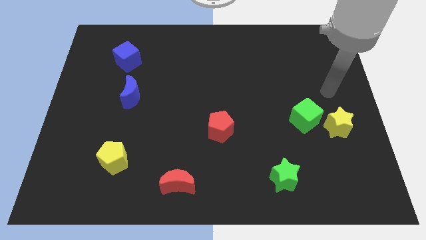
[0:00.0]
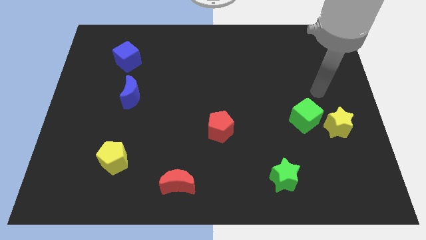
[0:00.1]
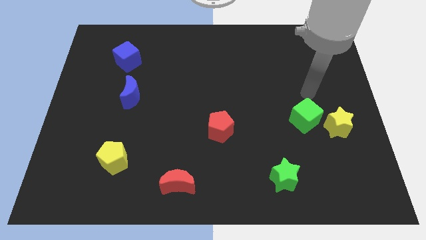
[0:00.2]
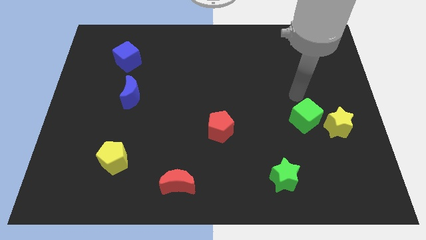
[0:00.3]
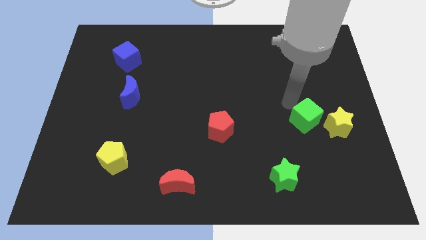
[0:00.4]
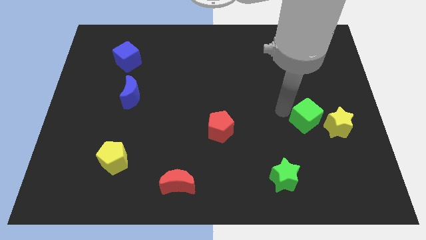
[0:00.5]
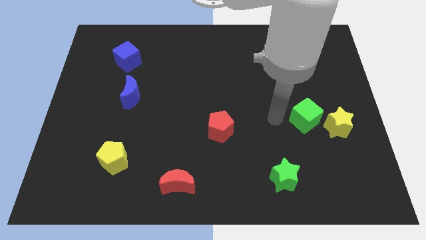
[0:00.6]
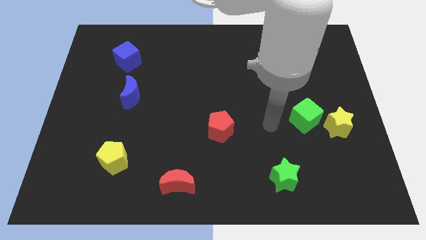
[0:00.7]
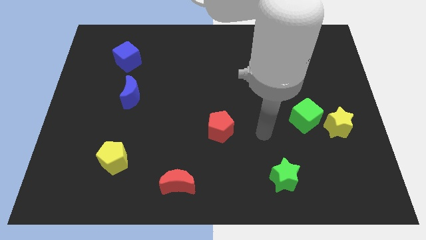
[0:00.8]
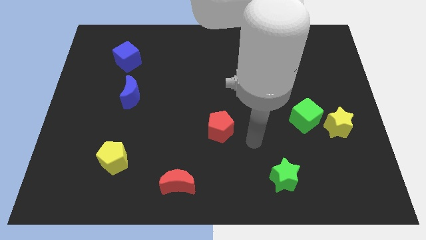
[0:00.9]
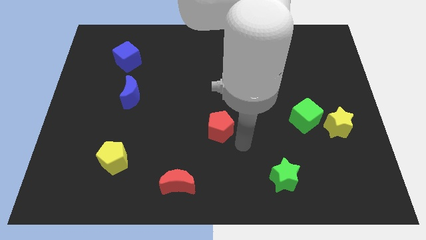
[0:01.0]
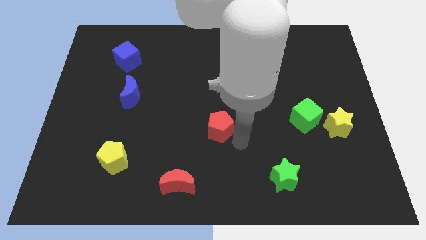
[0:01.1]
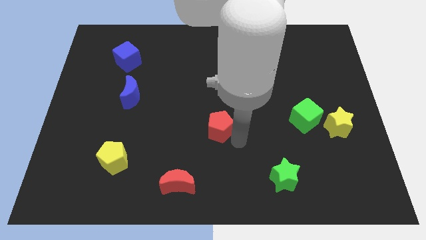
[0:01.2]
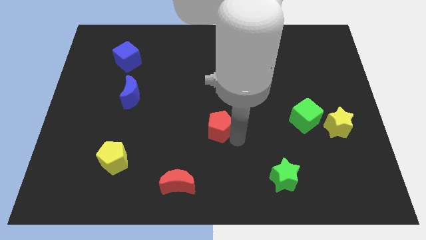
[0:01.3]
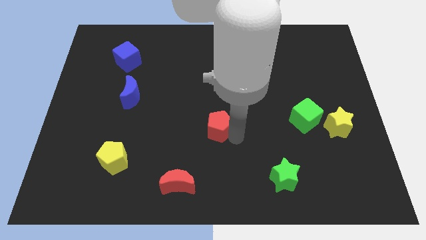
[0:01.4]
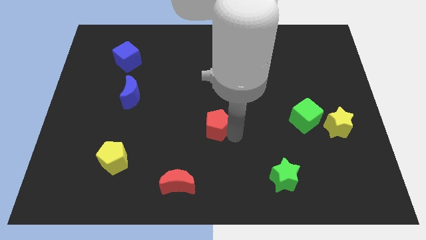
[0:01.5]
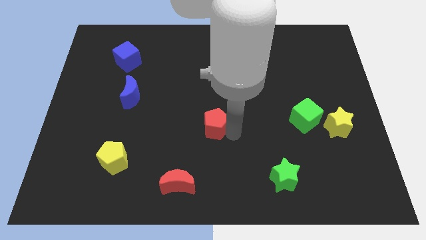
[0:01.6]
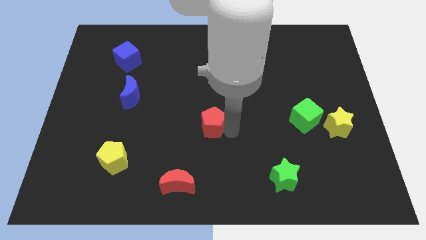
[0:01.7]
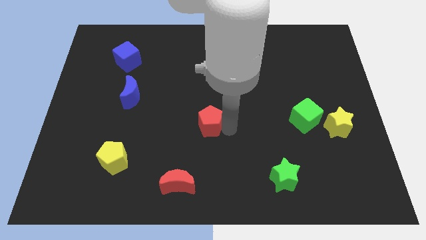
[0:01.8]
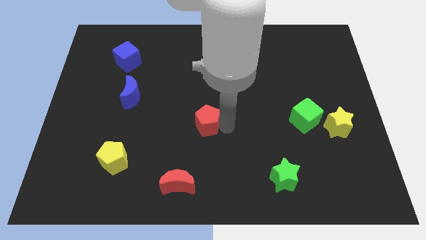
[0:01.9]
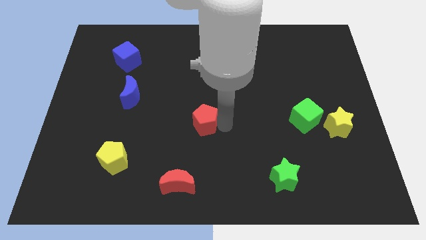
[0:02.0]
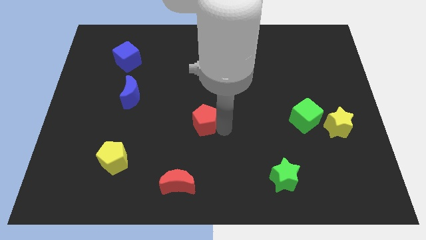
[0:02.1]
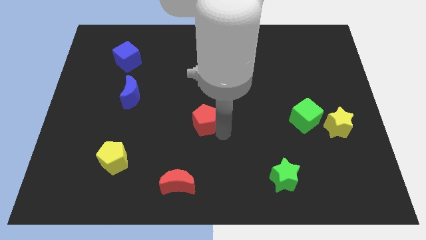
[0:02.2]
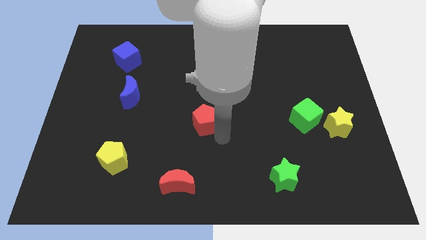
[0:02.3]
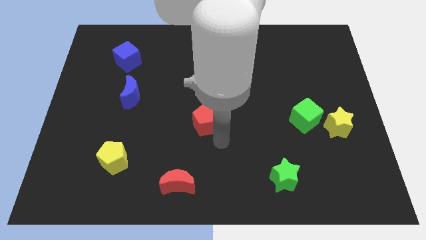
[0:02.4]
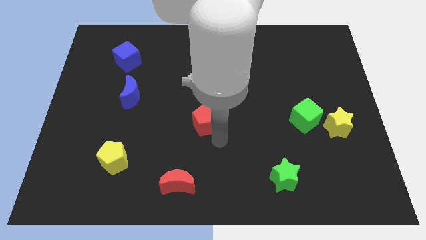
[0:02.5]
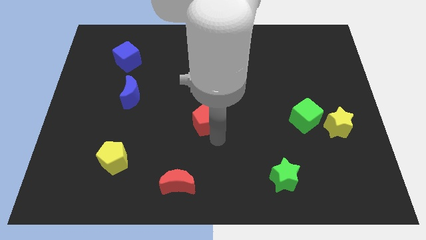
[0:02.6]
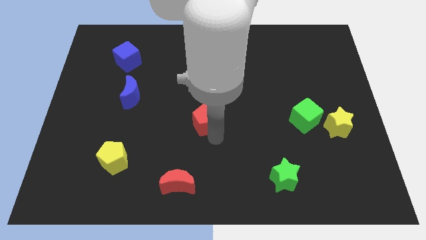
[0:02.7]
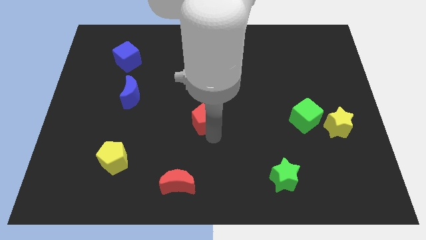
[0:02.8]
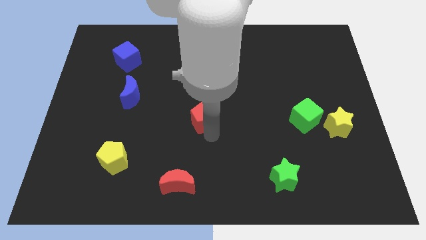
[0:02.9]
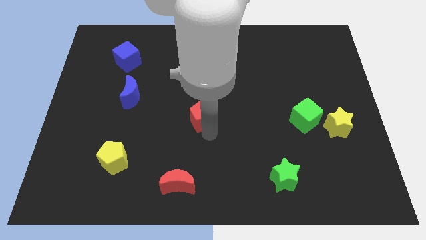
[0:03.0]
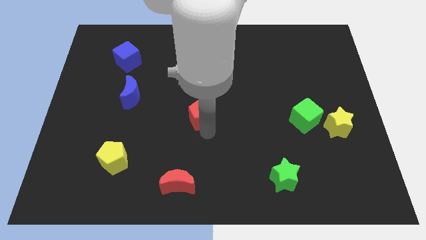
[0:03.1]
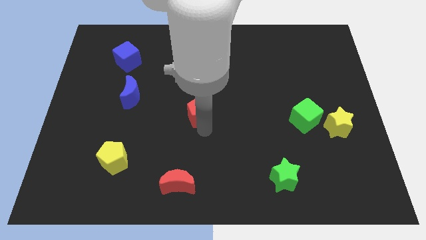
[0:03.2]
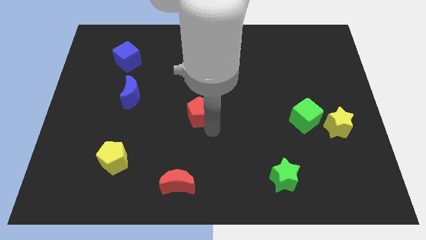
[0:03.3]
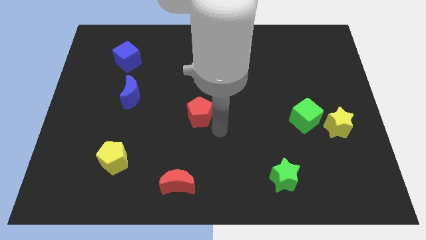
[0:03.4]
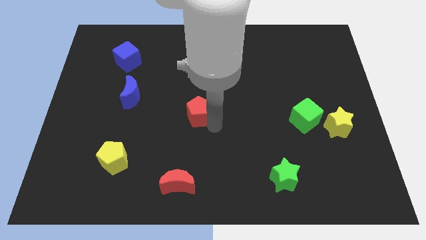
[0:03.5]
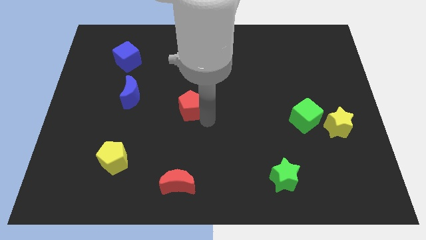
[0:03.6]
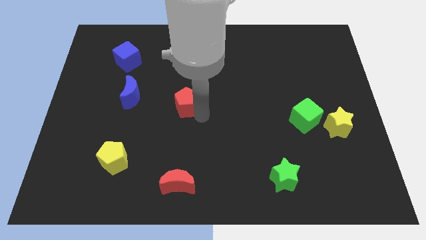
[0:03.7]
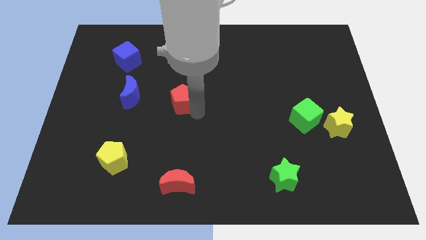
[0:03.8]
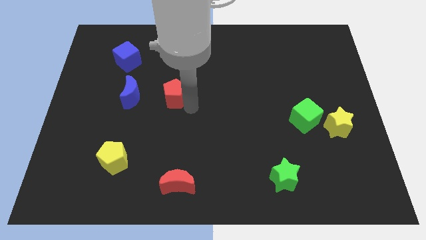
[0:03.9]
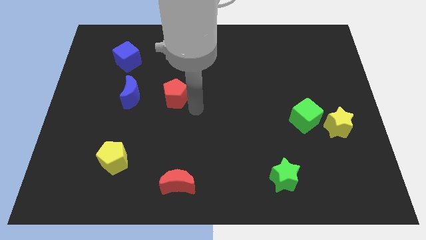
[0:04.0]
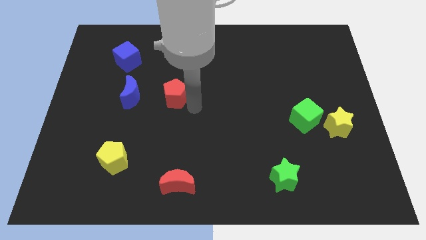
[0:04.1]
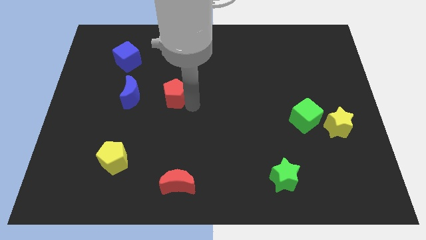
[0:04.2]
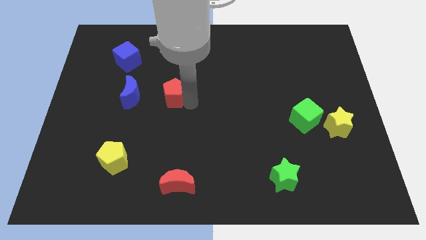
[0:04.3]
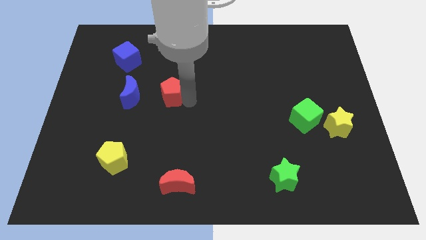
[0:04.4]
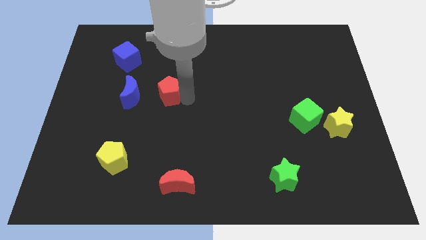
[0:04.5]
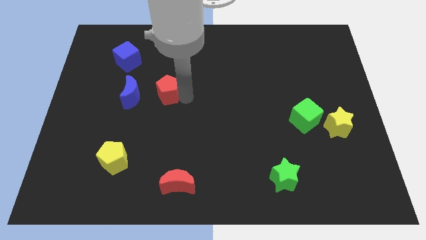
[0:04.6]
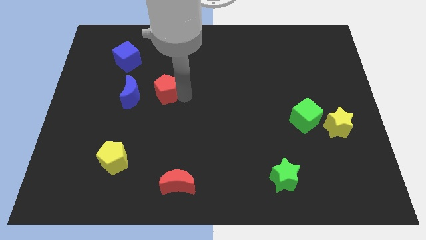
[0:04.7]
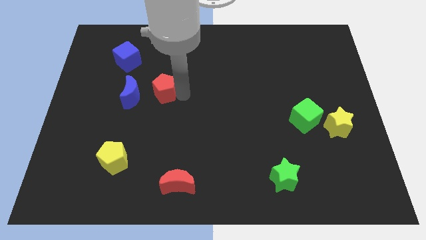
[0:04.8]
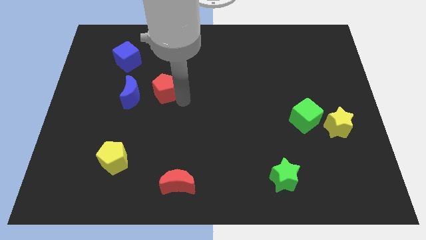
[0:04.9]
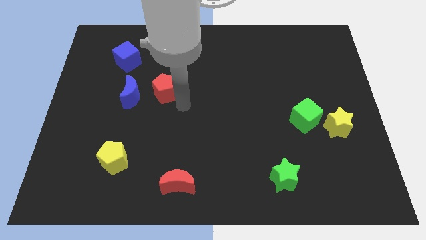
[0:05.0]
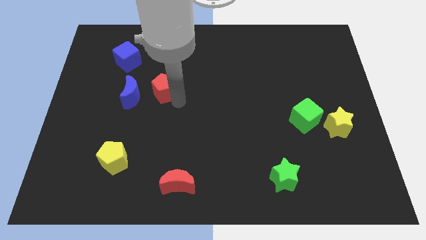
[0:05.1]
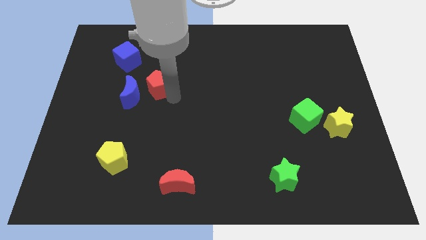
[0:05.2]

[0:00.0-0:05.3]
move the red pentagon to the bottom right side of the blue cube

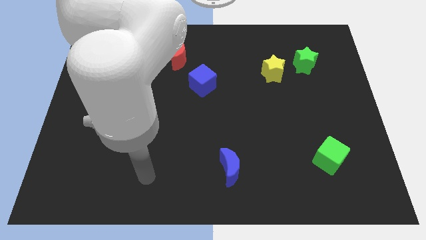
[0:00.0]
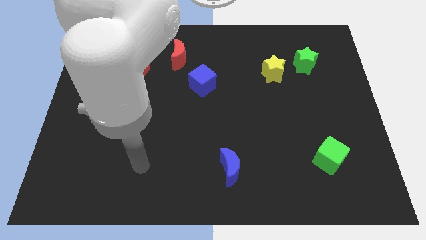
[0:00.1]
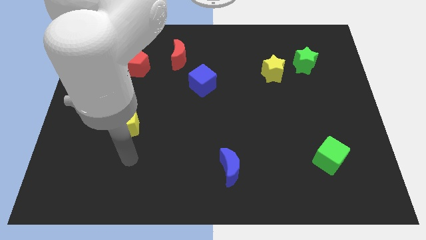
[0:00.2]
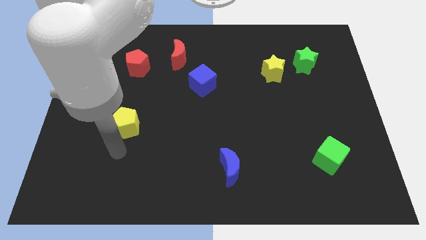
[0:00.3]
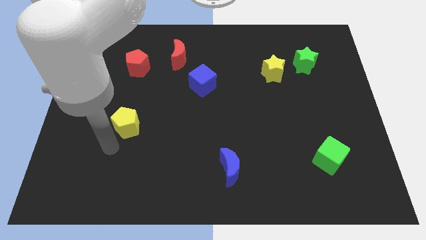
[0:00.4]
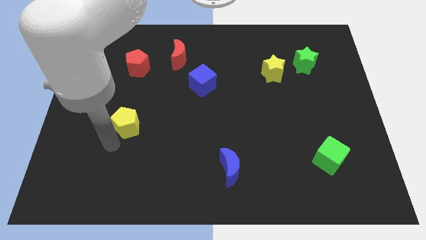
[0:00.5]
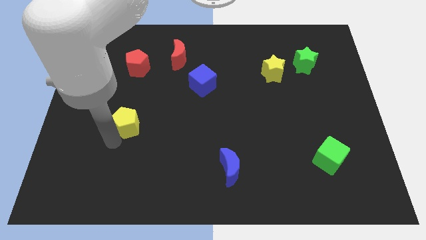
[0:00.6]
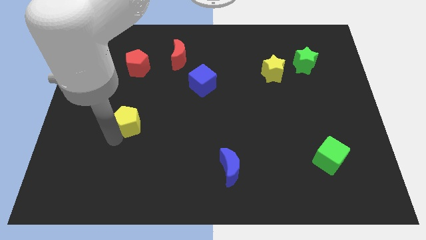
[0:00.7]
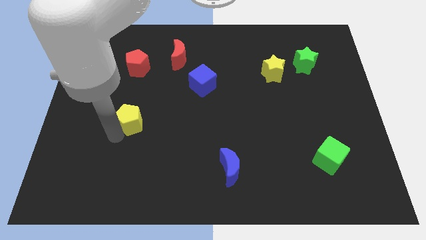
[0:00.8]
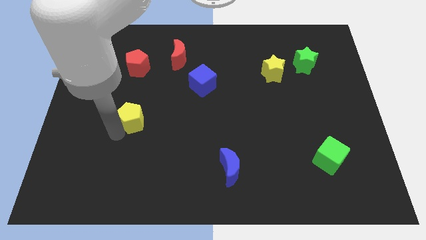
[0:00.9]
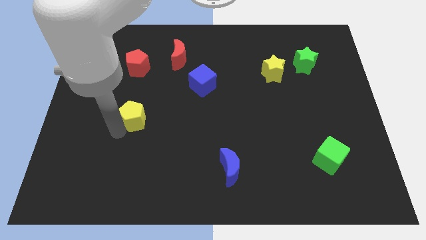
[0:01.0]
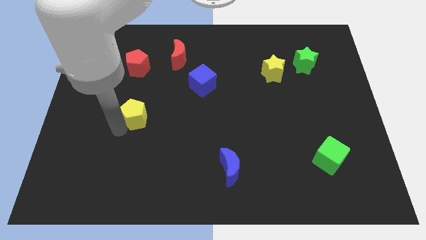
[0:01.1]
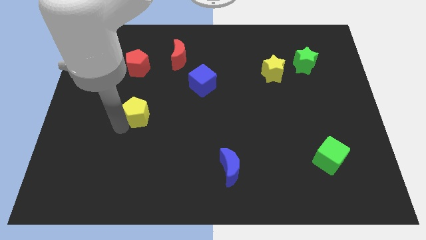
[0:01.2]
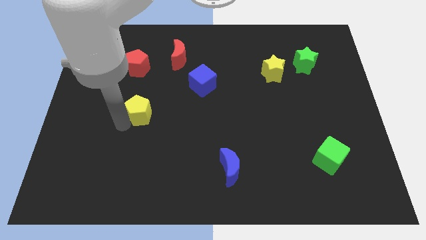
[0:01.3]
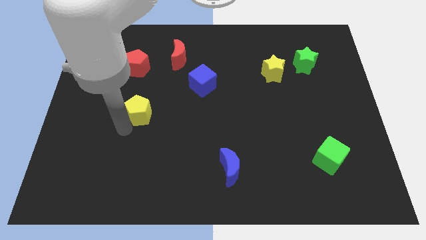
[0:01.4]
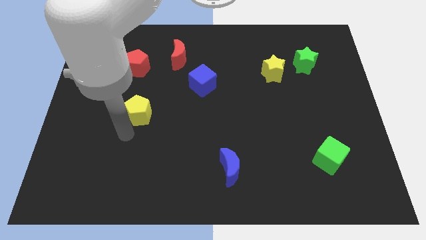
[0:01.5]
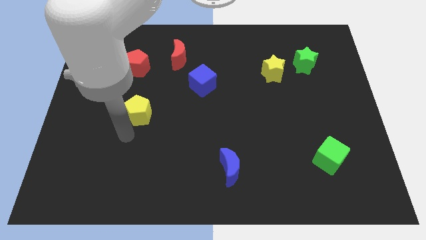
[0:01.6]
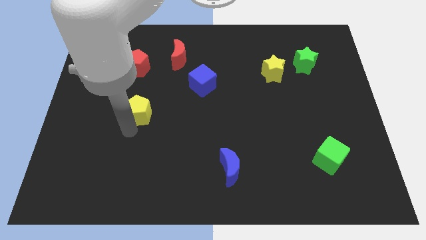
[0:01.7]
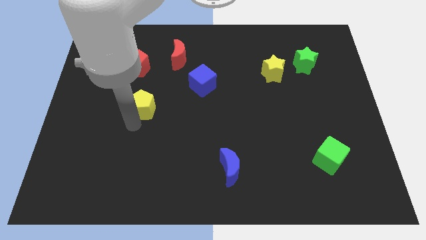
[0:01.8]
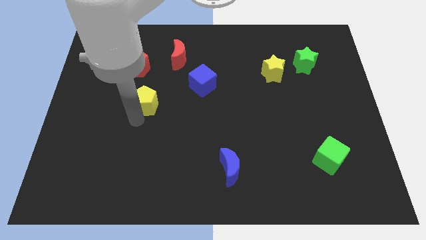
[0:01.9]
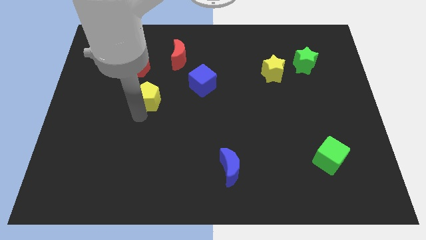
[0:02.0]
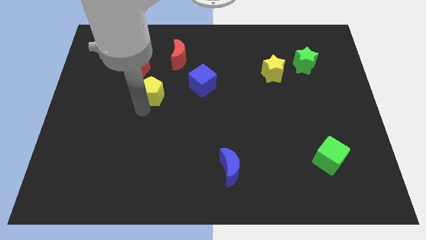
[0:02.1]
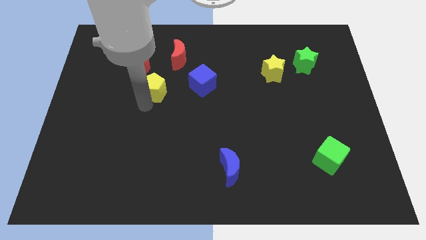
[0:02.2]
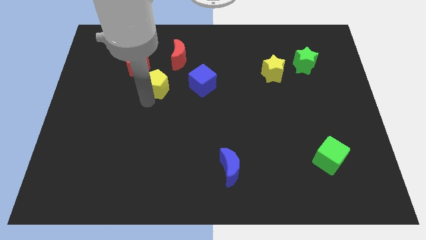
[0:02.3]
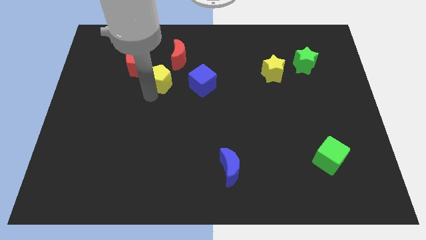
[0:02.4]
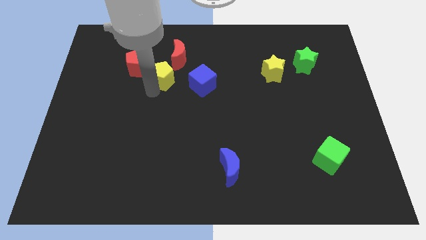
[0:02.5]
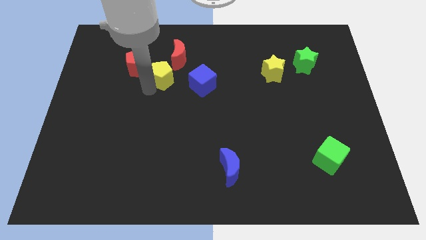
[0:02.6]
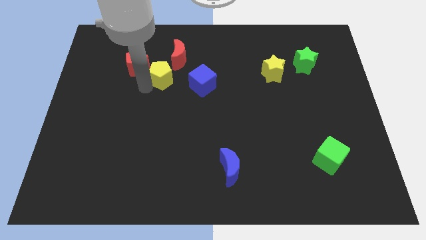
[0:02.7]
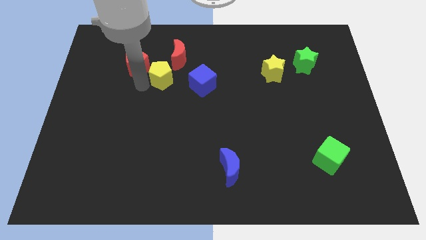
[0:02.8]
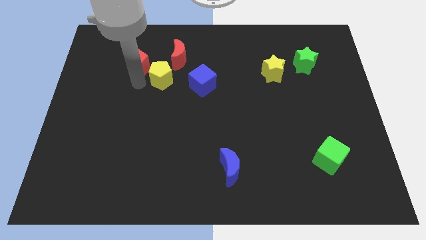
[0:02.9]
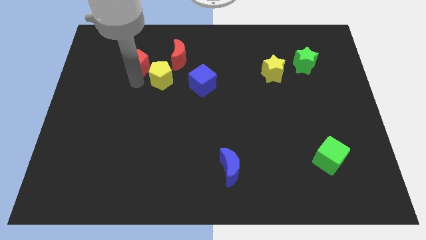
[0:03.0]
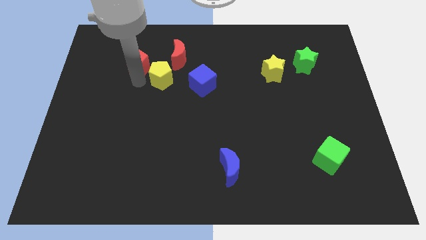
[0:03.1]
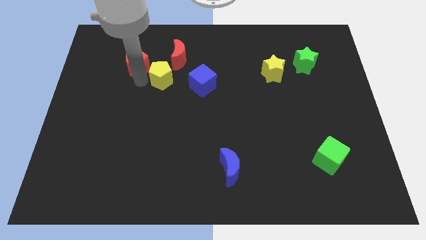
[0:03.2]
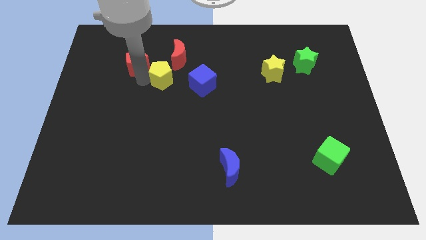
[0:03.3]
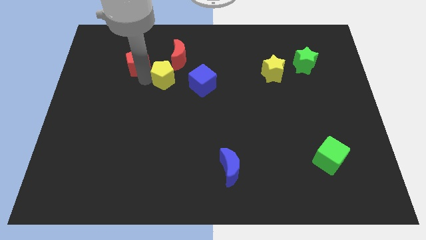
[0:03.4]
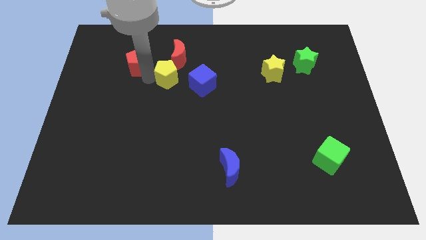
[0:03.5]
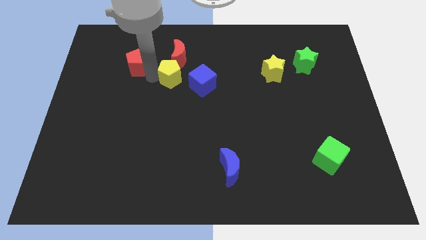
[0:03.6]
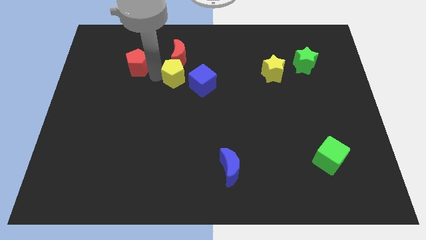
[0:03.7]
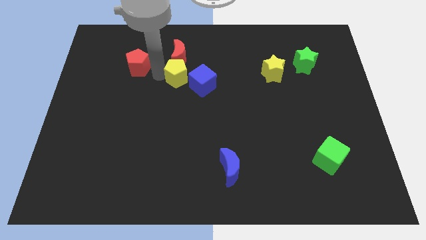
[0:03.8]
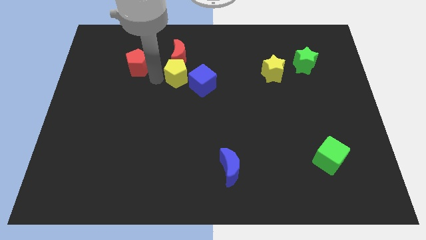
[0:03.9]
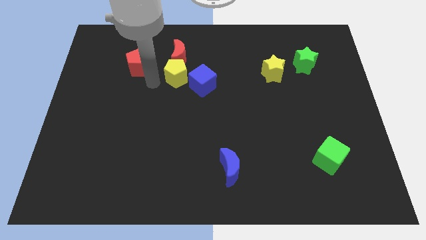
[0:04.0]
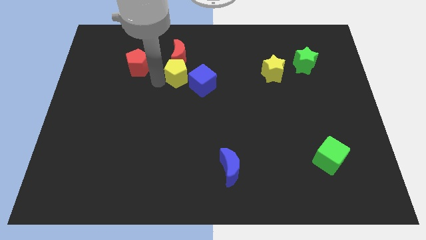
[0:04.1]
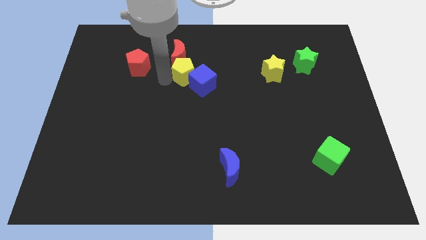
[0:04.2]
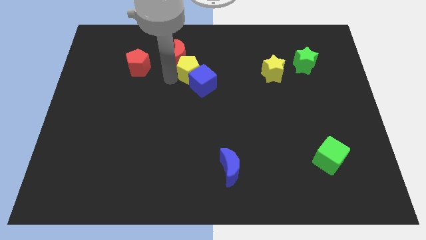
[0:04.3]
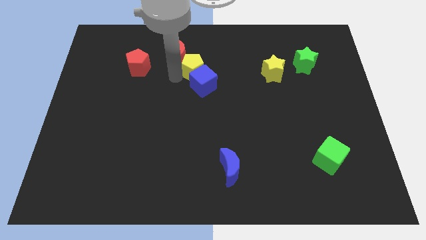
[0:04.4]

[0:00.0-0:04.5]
put the yellow pentagon to the right side of the red moon
